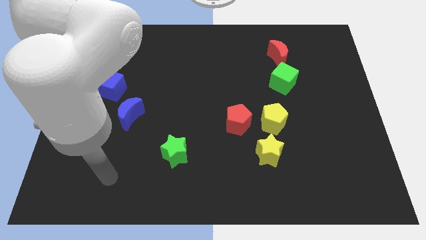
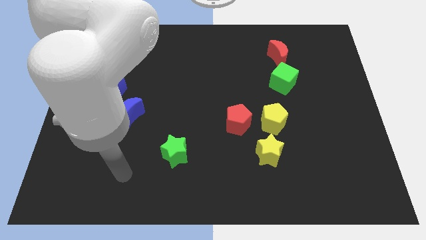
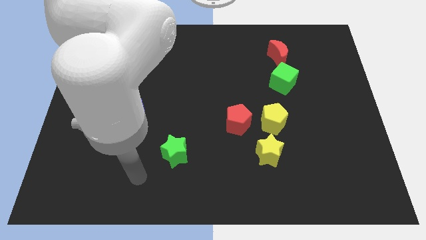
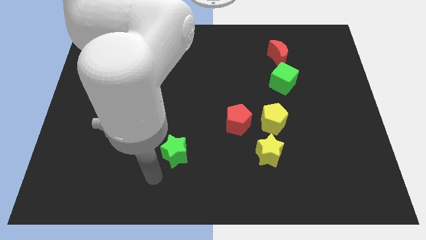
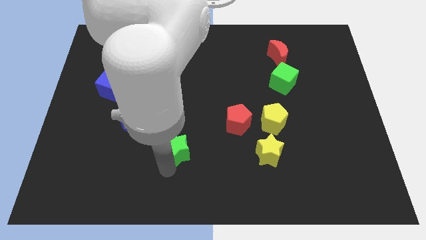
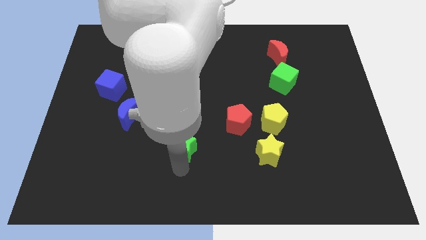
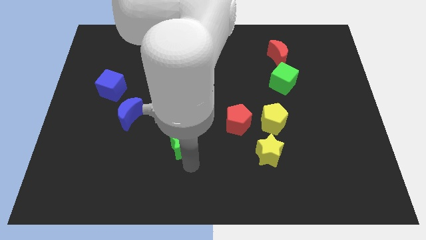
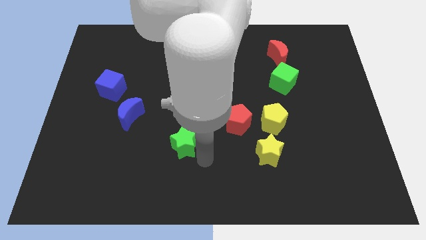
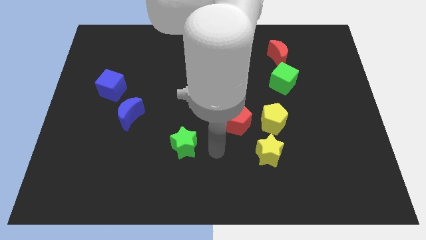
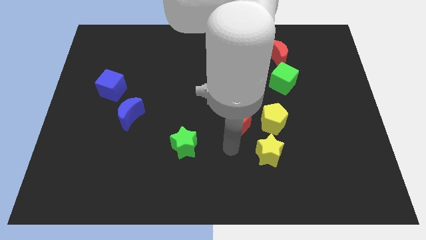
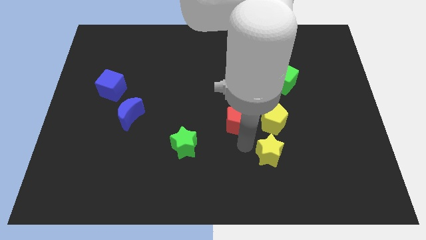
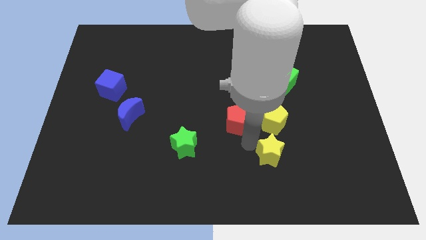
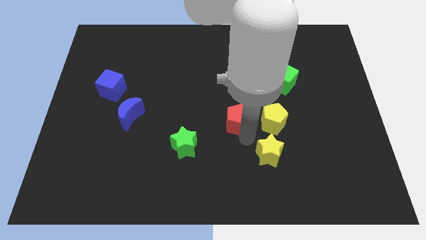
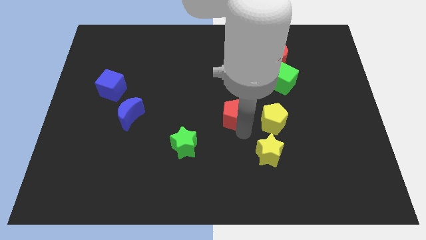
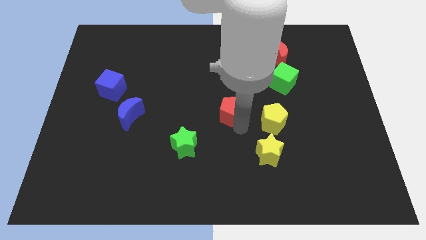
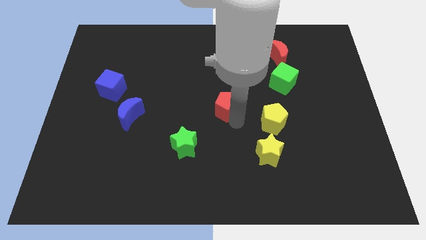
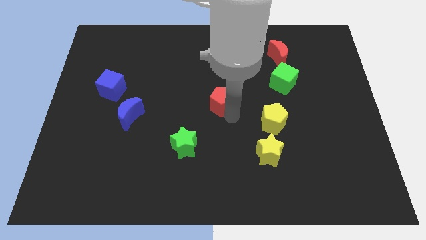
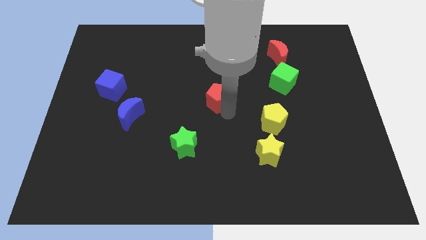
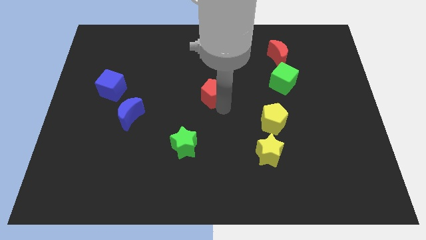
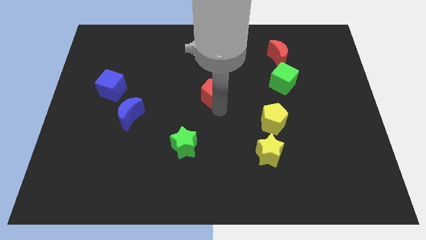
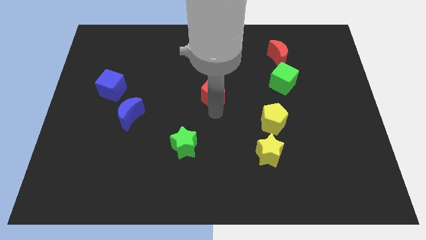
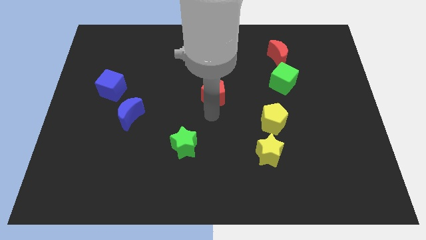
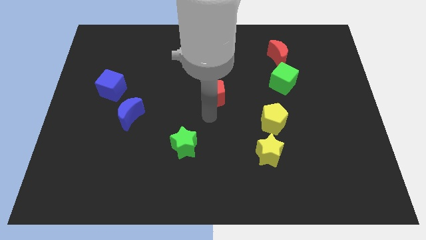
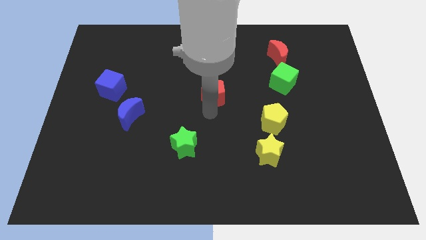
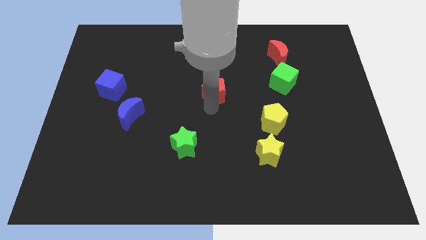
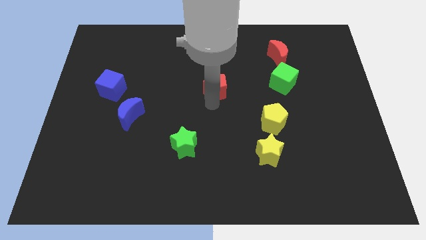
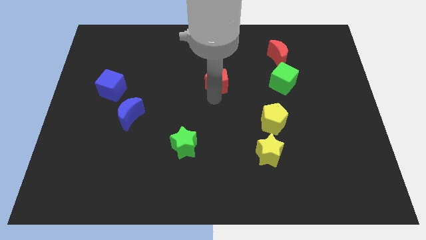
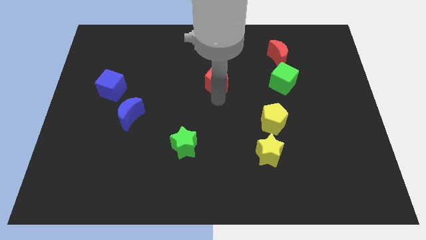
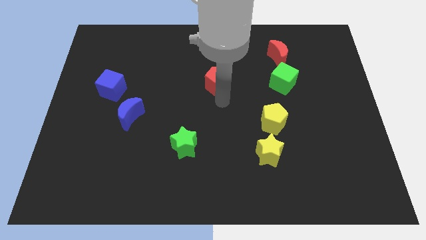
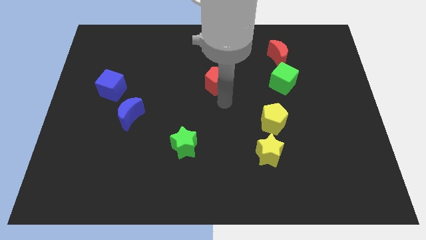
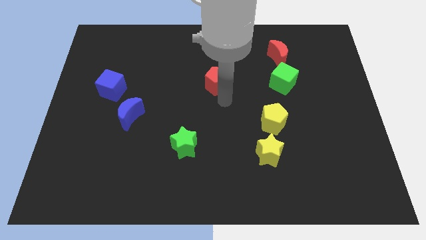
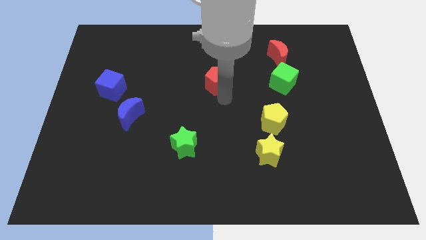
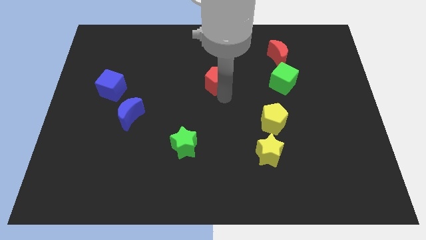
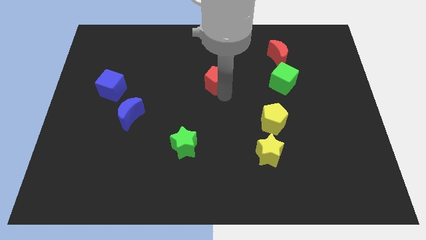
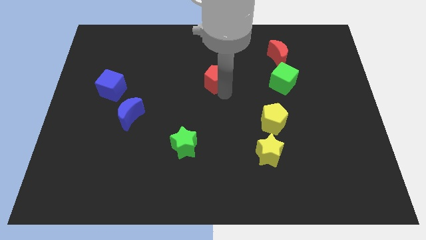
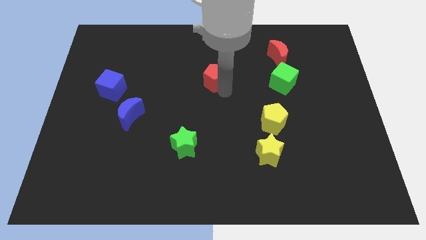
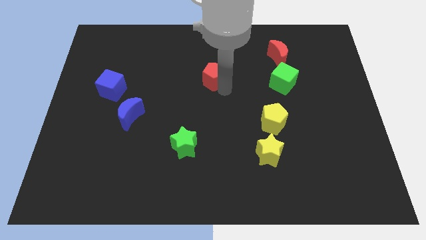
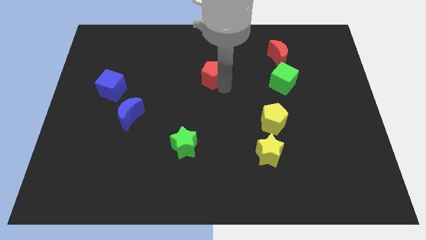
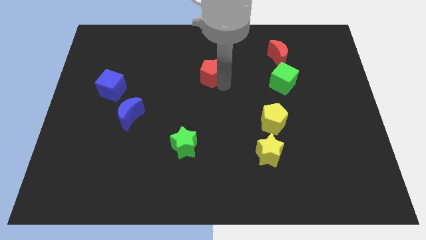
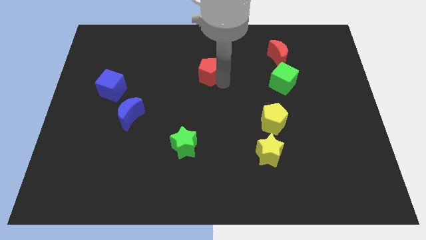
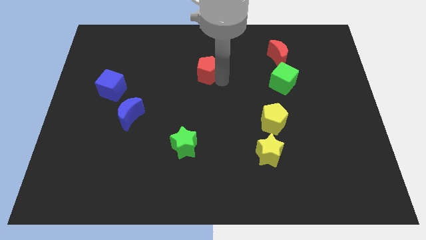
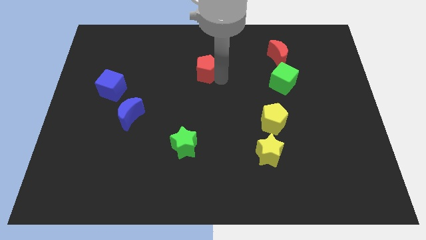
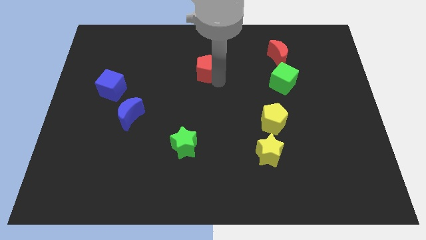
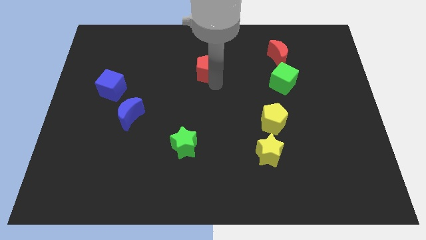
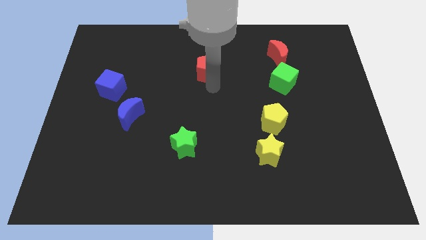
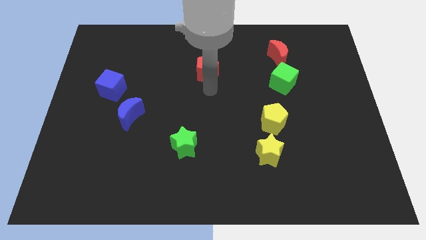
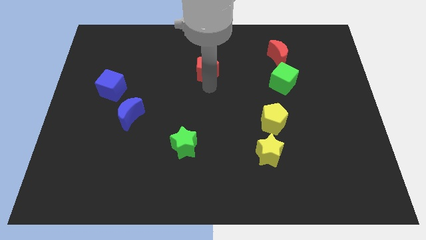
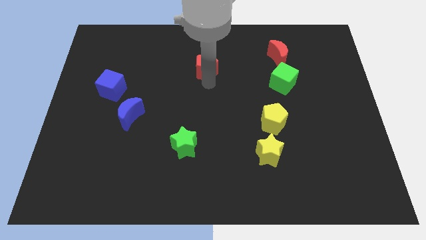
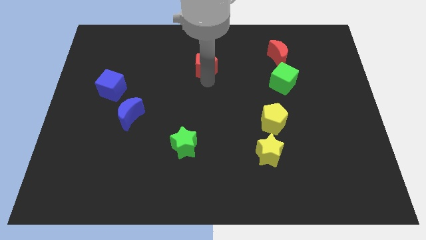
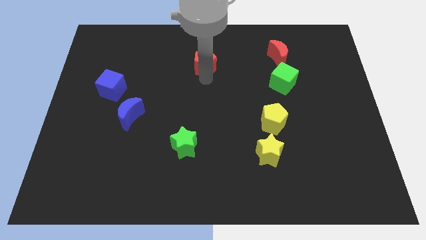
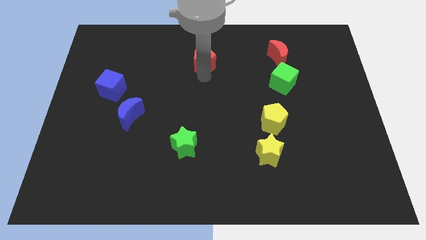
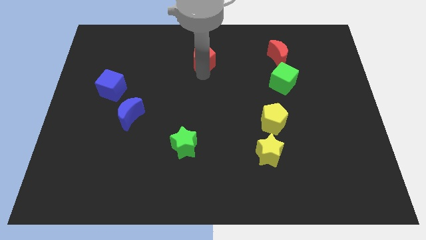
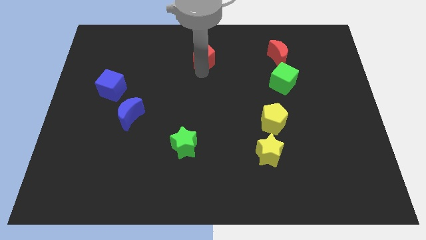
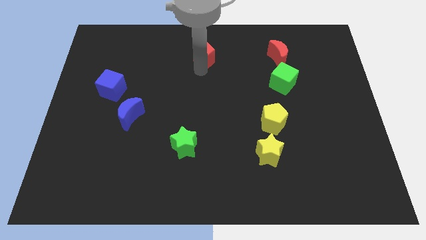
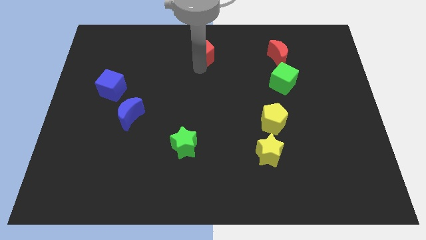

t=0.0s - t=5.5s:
push the red pentagon to the towards your base

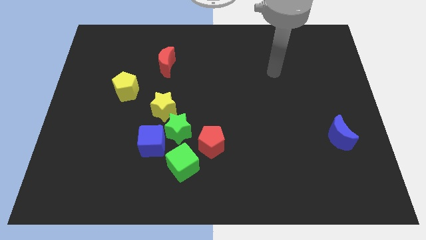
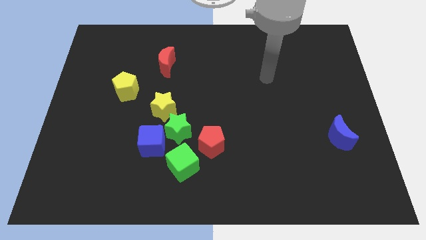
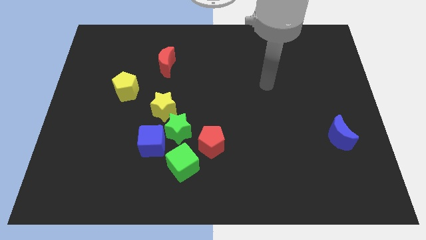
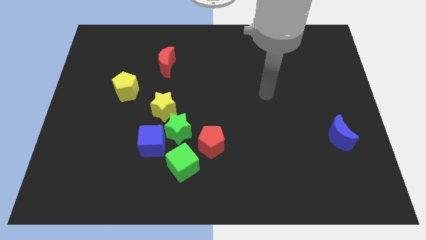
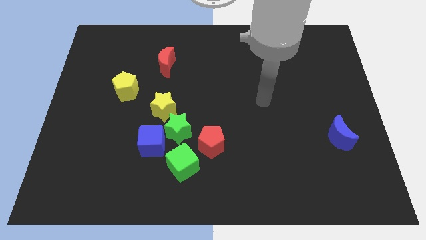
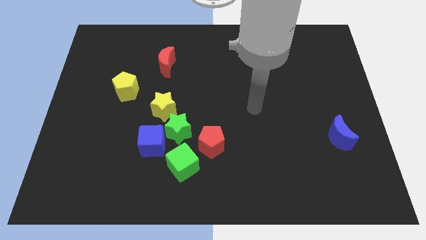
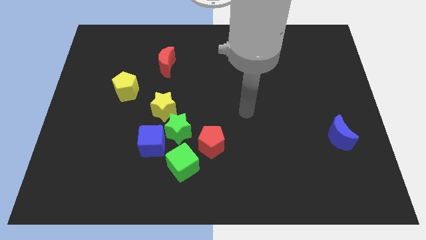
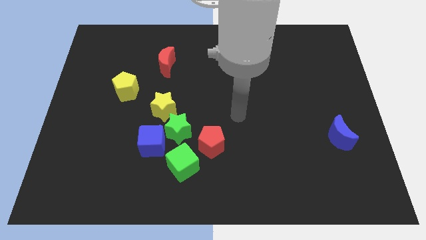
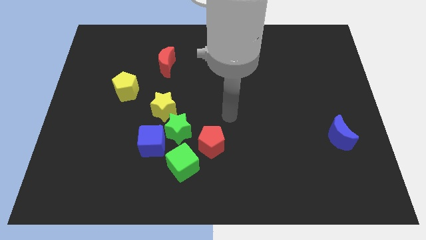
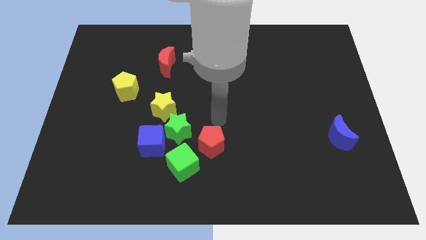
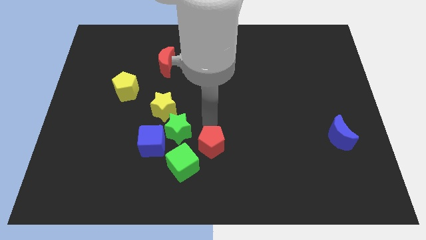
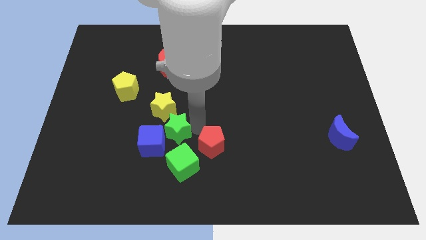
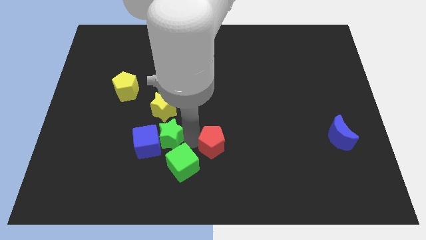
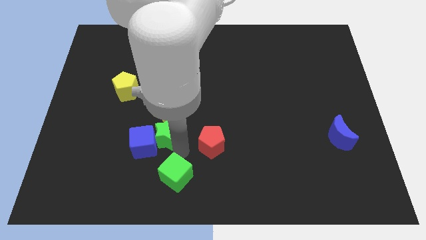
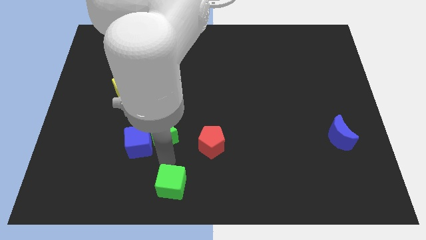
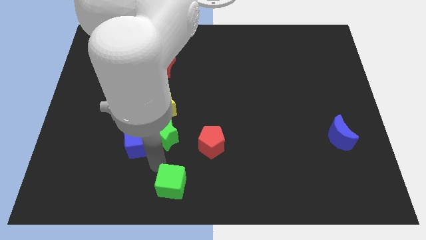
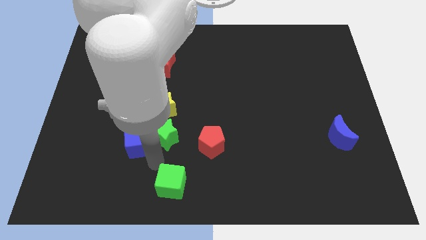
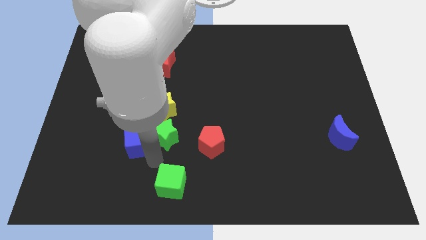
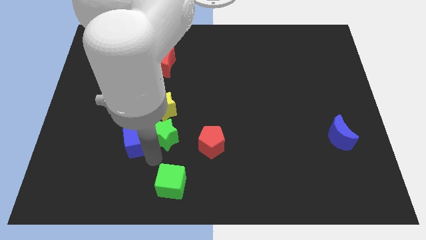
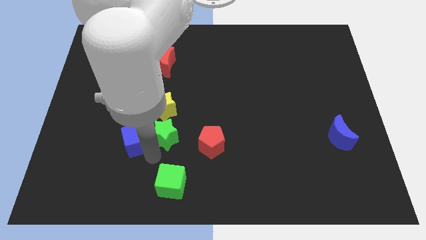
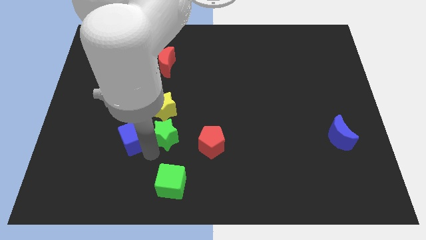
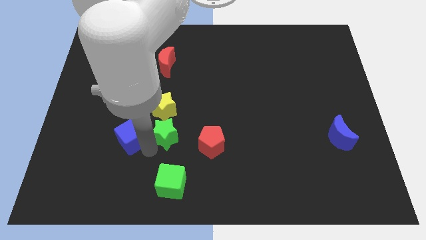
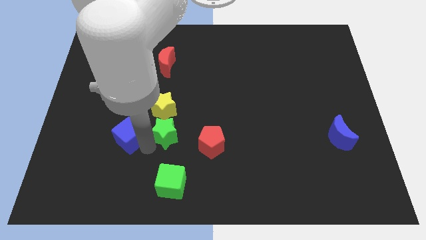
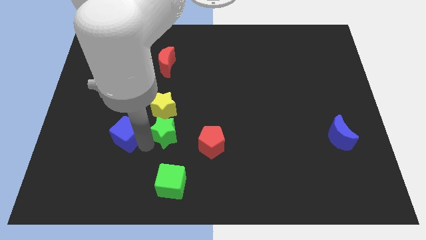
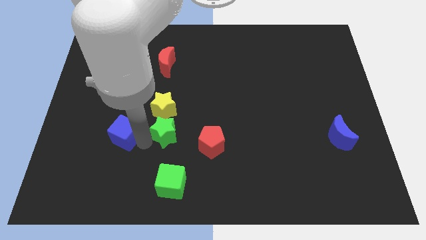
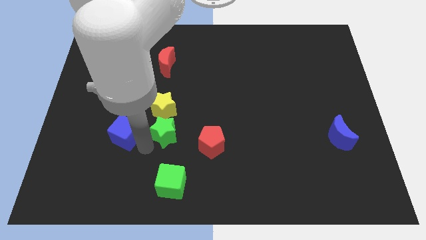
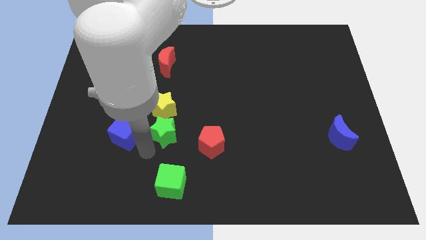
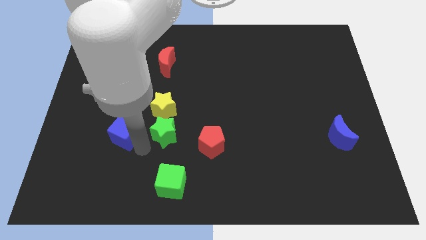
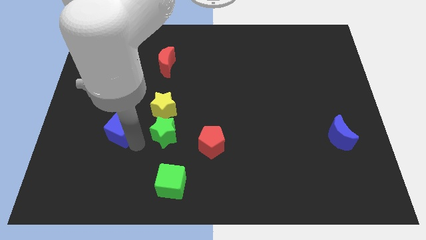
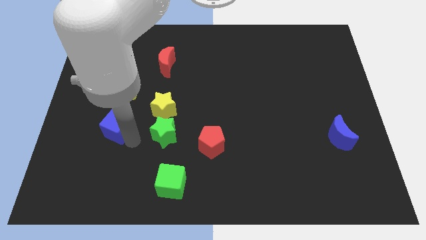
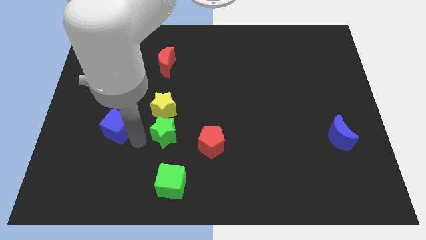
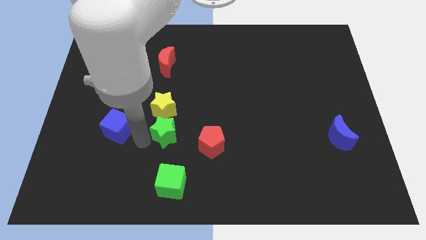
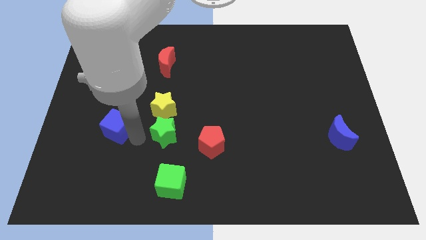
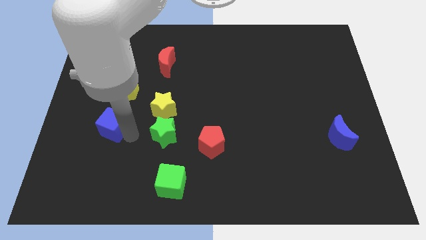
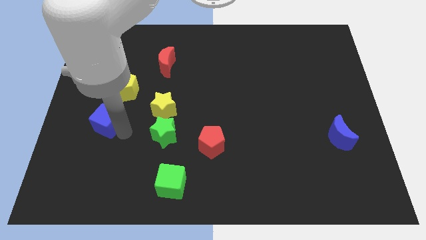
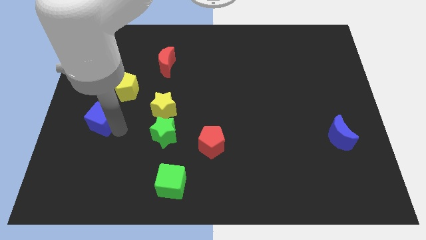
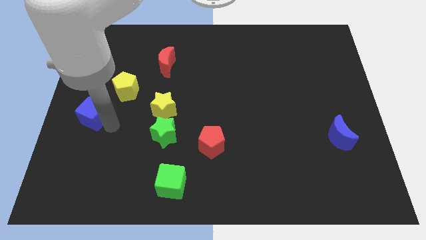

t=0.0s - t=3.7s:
slide the blue cube to the left side
